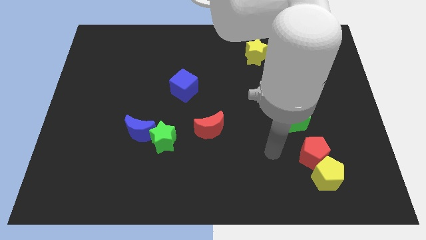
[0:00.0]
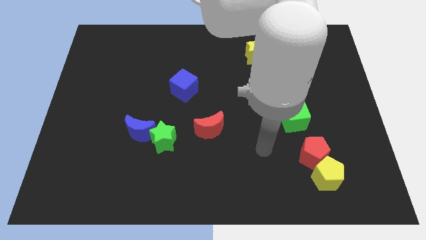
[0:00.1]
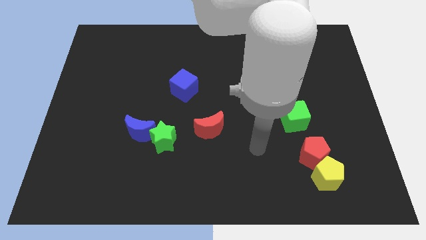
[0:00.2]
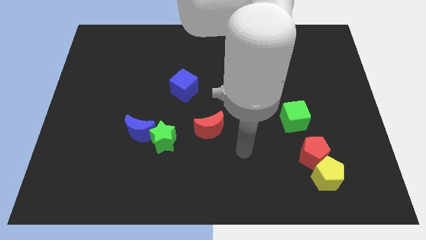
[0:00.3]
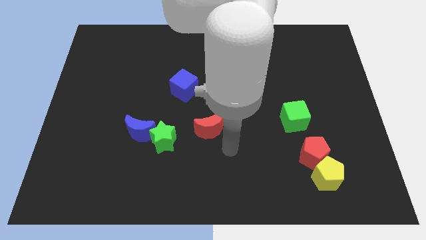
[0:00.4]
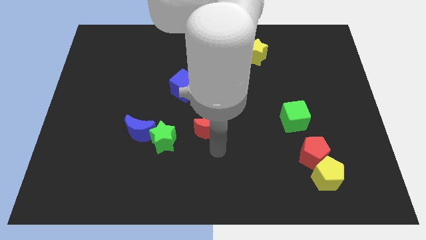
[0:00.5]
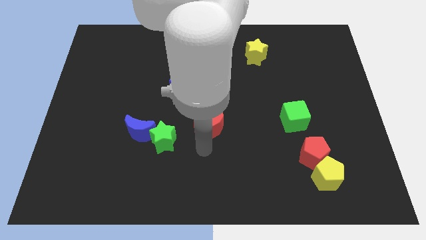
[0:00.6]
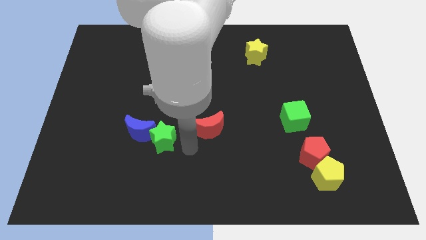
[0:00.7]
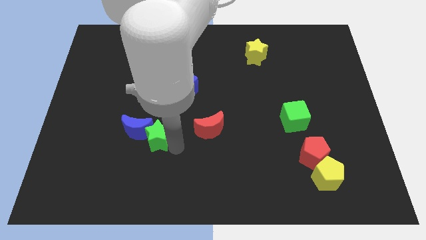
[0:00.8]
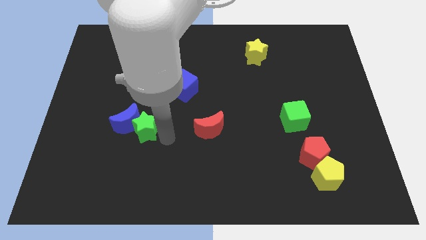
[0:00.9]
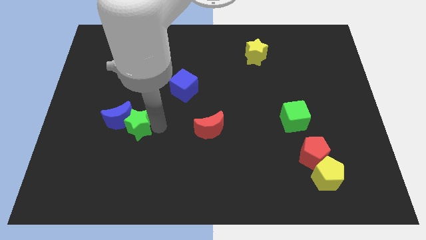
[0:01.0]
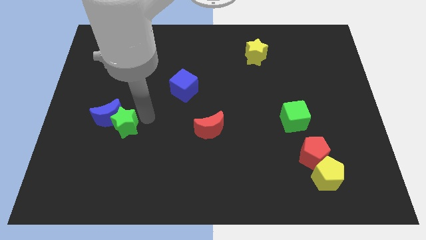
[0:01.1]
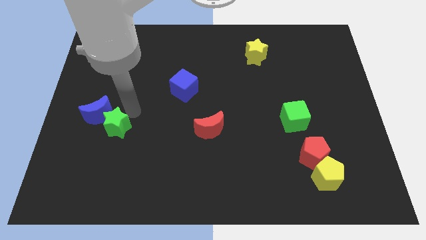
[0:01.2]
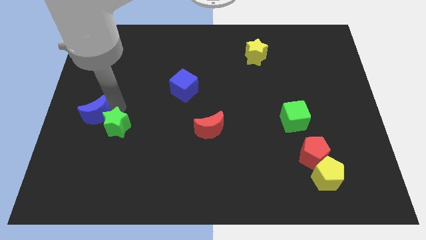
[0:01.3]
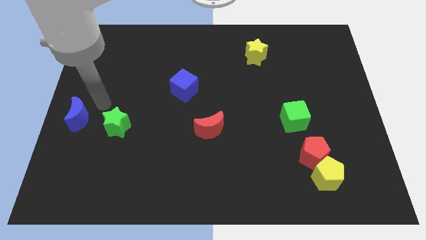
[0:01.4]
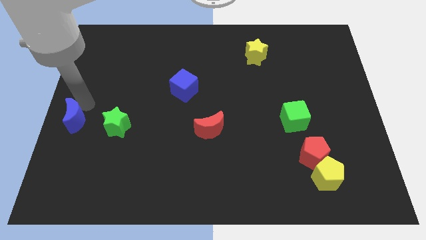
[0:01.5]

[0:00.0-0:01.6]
move the blue moon away from the green star

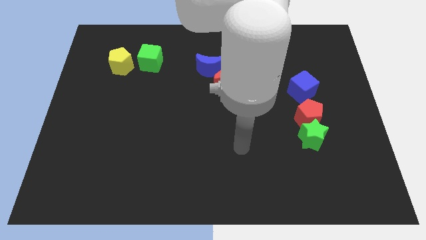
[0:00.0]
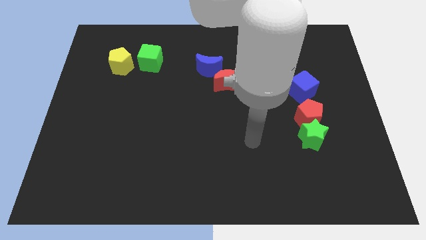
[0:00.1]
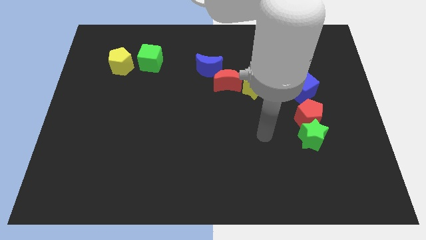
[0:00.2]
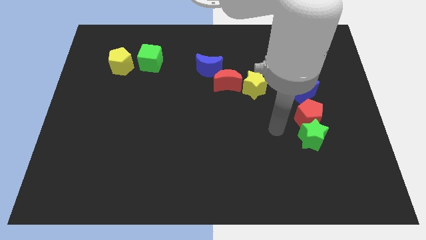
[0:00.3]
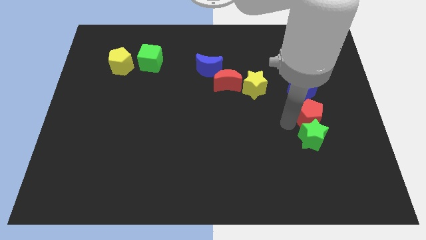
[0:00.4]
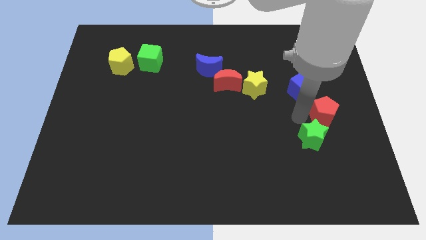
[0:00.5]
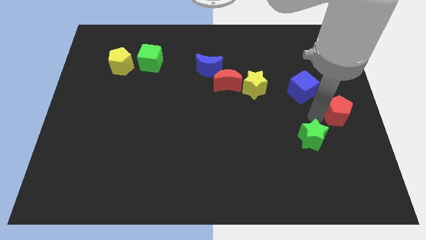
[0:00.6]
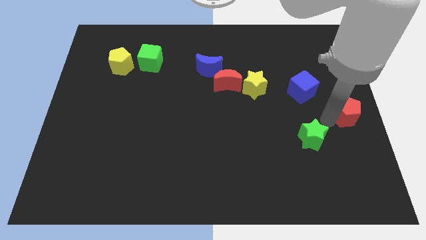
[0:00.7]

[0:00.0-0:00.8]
pull the green star apart from the red pentagon

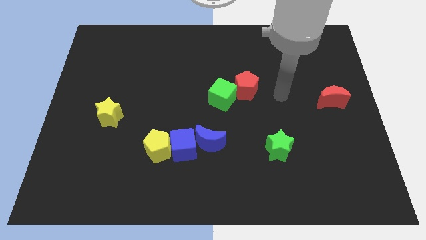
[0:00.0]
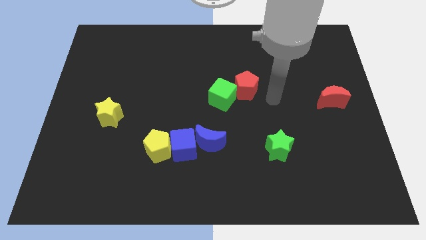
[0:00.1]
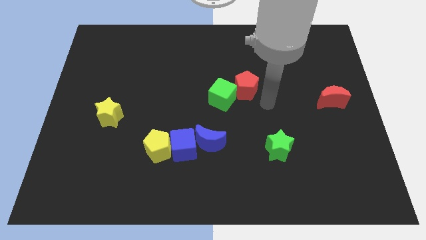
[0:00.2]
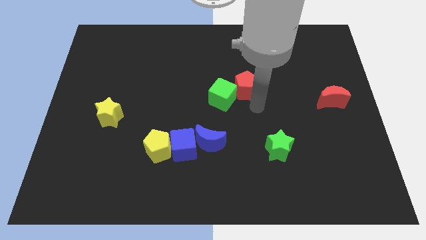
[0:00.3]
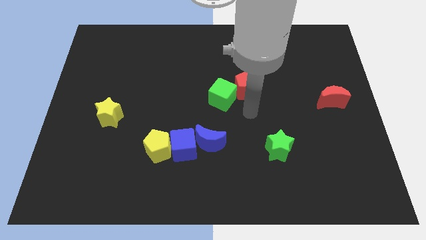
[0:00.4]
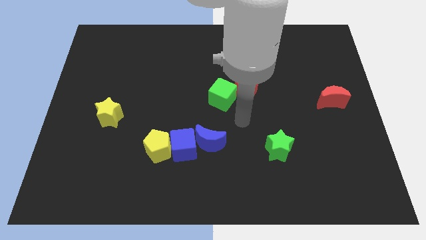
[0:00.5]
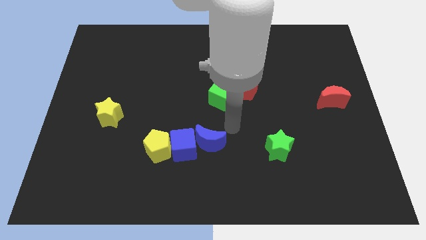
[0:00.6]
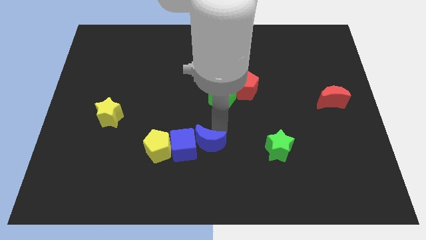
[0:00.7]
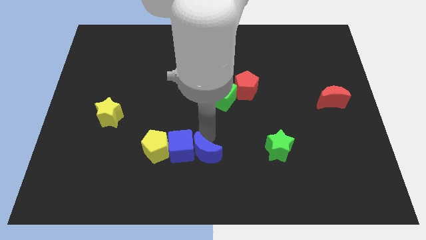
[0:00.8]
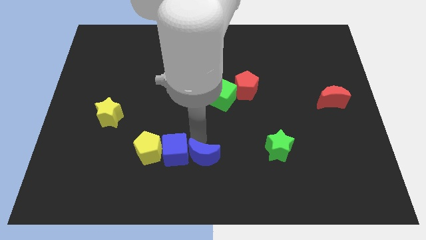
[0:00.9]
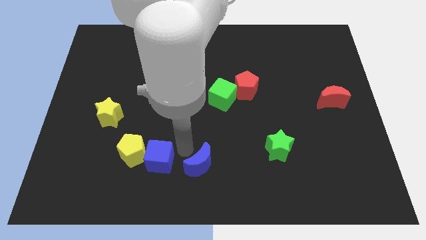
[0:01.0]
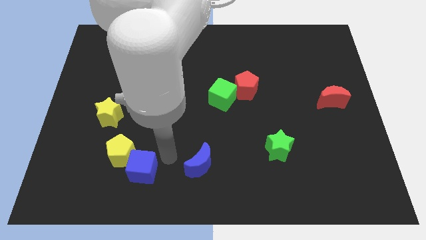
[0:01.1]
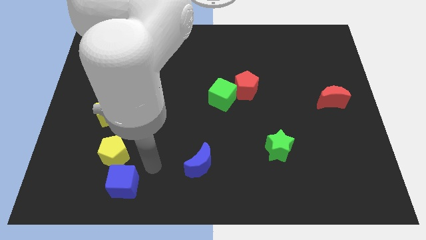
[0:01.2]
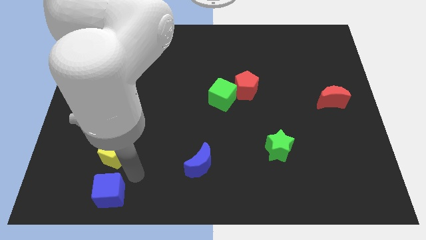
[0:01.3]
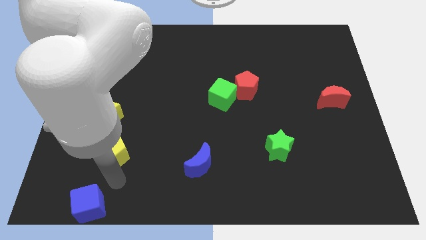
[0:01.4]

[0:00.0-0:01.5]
separate the yellow pentagon from the blue cube

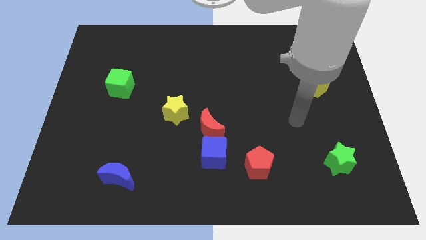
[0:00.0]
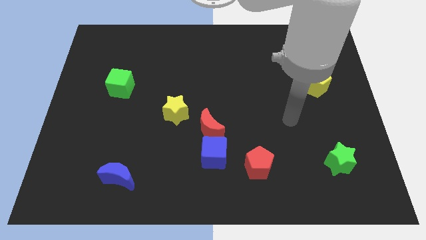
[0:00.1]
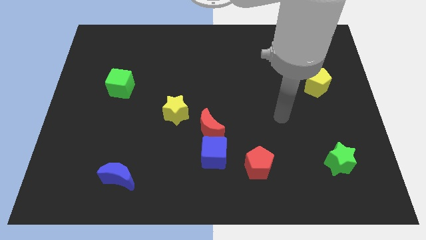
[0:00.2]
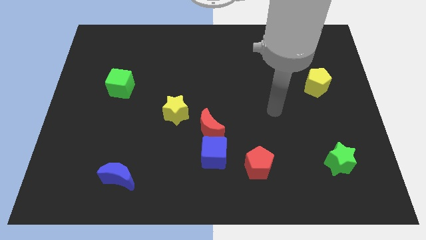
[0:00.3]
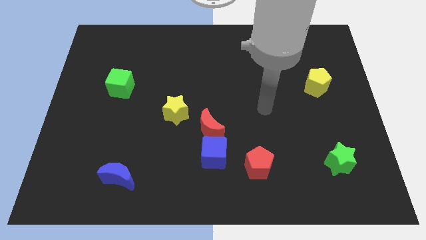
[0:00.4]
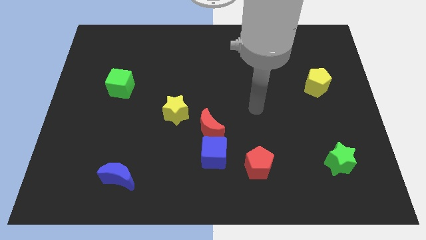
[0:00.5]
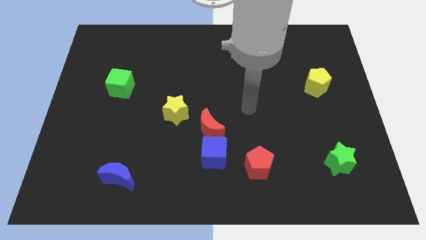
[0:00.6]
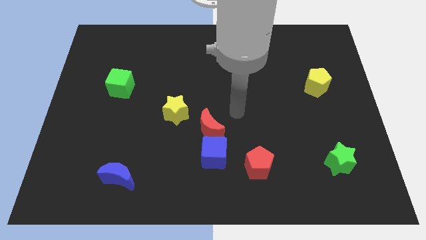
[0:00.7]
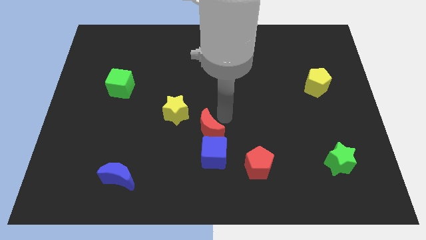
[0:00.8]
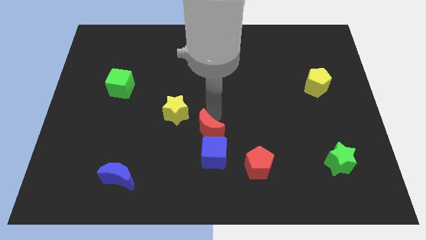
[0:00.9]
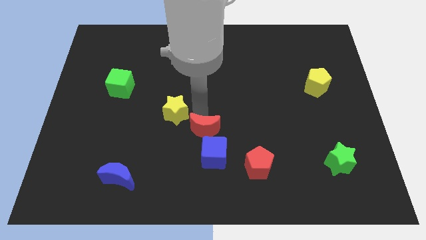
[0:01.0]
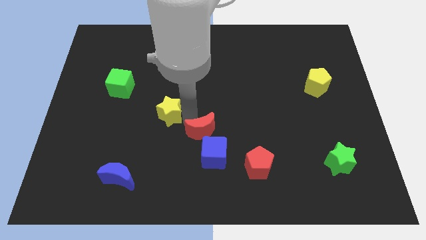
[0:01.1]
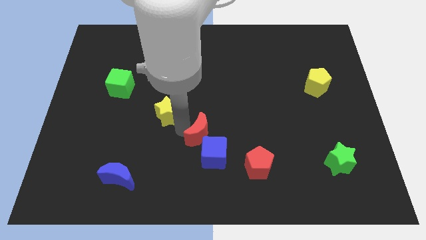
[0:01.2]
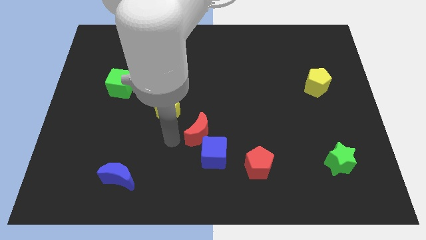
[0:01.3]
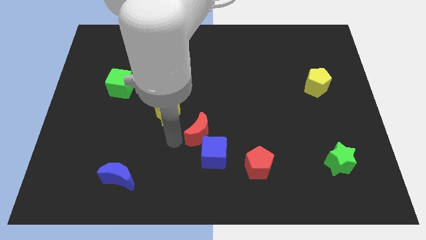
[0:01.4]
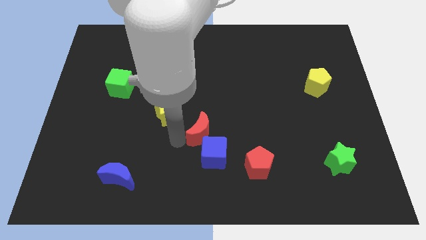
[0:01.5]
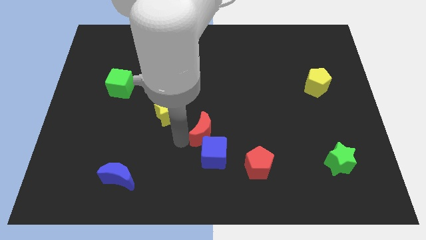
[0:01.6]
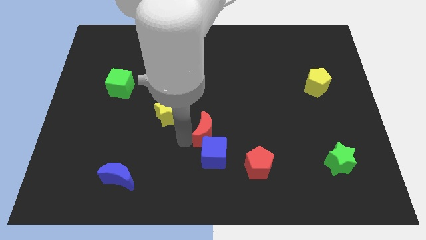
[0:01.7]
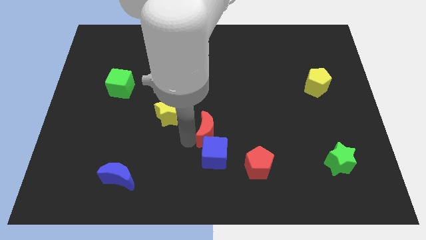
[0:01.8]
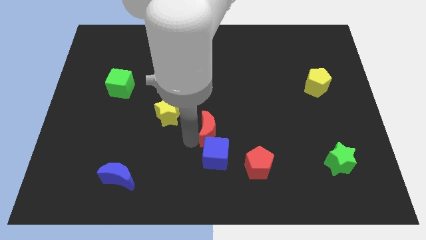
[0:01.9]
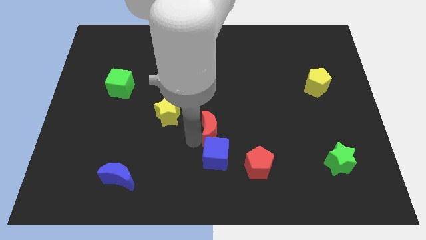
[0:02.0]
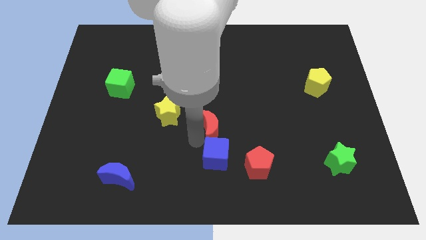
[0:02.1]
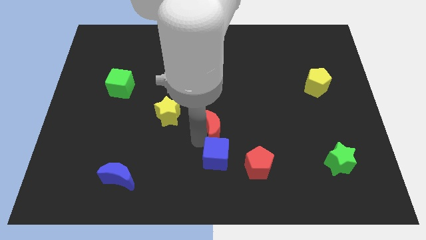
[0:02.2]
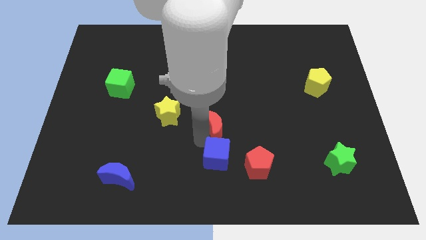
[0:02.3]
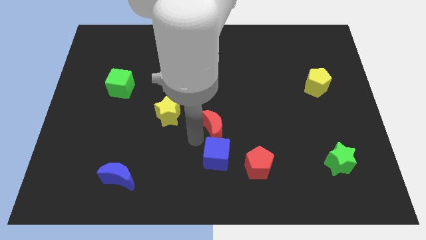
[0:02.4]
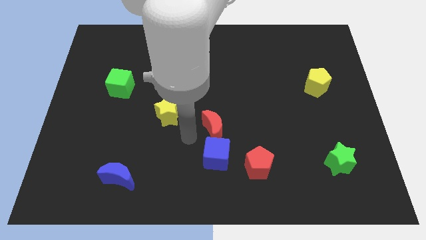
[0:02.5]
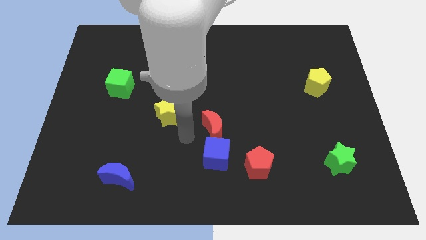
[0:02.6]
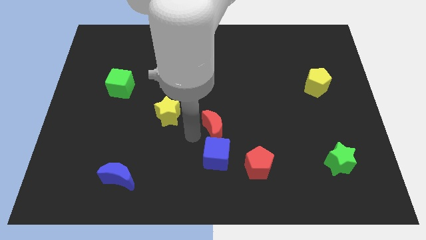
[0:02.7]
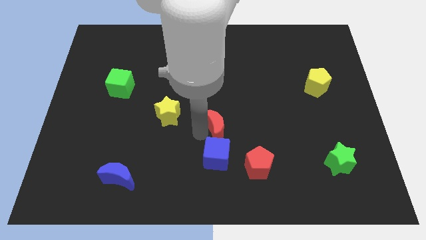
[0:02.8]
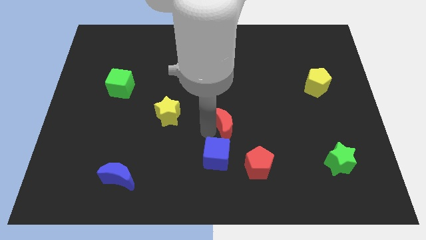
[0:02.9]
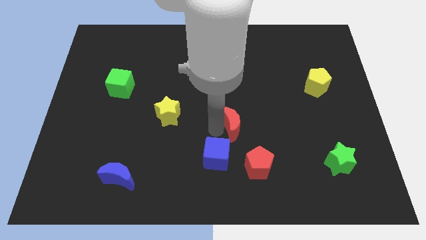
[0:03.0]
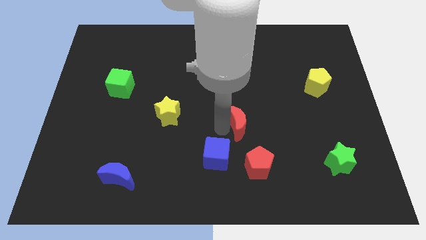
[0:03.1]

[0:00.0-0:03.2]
pull the red moon apart from the blue cube and yellow star

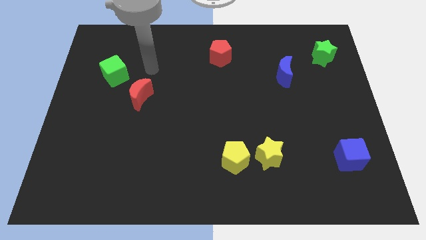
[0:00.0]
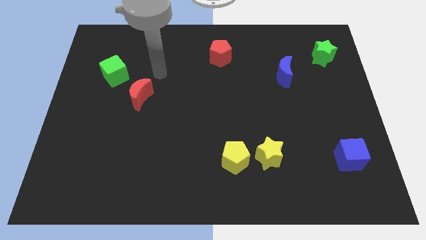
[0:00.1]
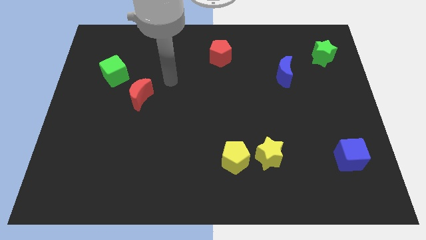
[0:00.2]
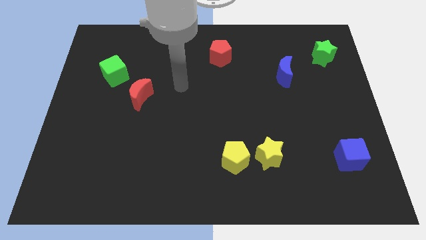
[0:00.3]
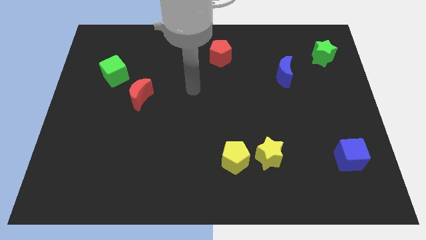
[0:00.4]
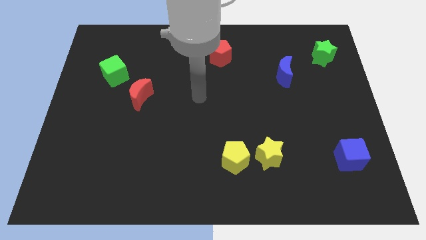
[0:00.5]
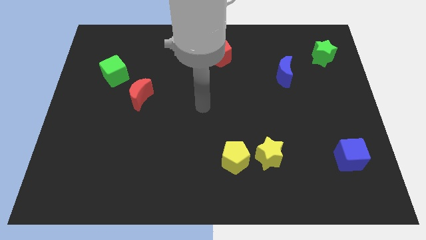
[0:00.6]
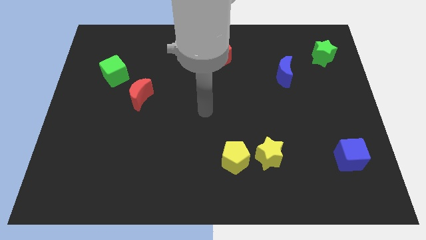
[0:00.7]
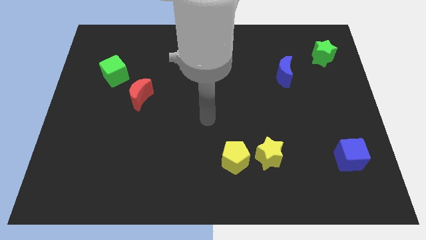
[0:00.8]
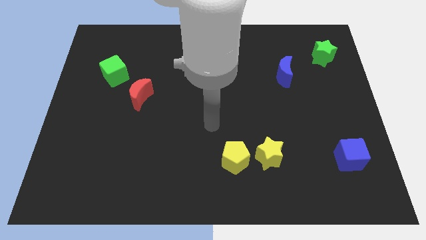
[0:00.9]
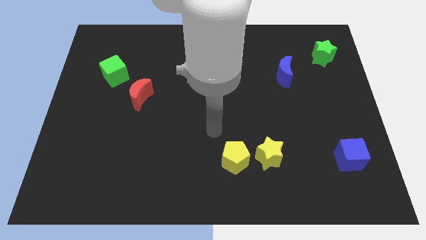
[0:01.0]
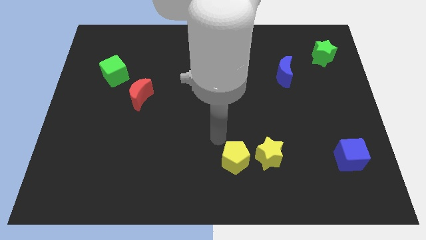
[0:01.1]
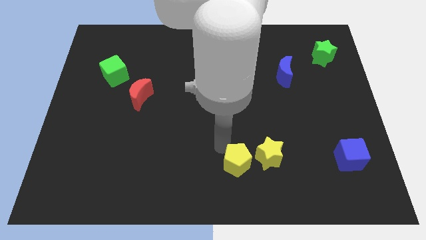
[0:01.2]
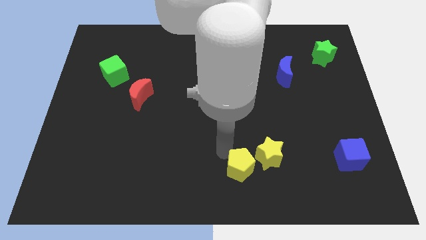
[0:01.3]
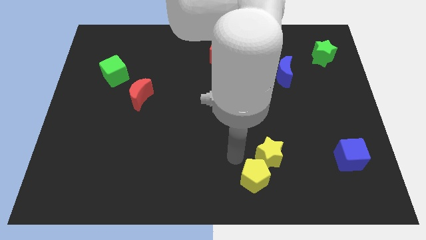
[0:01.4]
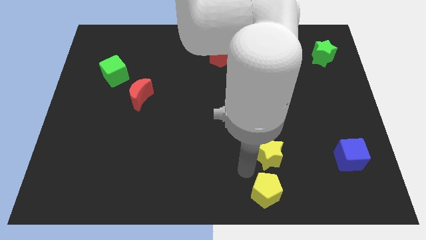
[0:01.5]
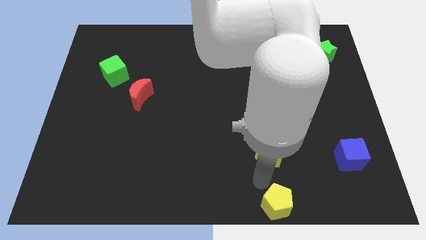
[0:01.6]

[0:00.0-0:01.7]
move the yellow star away from the yellow pentagon

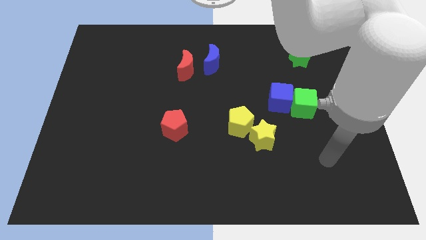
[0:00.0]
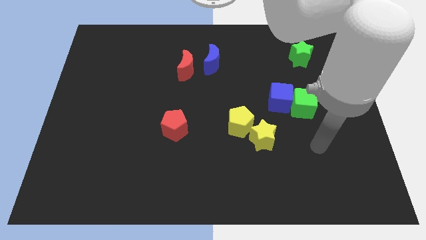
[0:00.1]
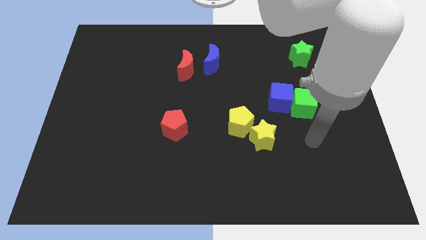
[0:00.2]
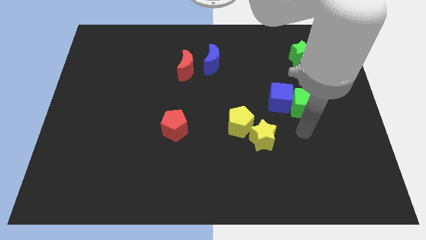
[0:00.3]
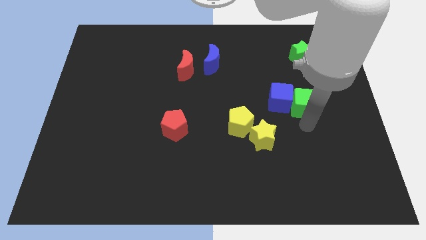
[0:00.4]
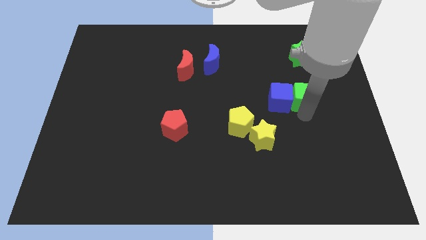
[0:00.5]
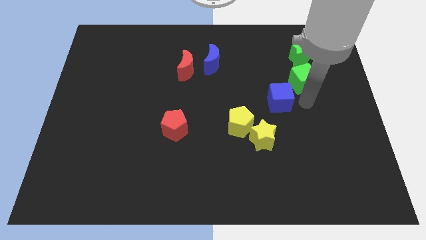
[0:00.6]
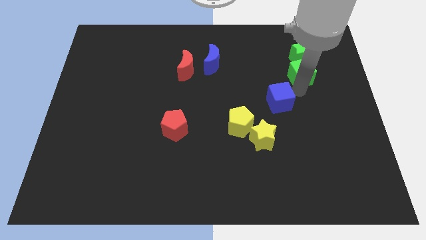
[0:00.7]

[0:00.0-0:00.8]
move the blue cube away from the green cube
